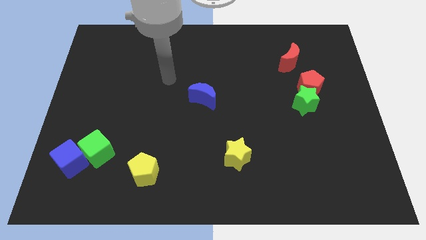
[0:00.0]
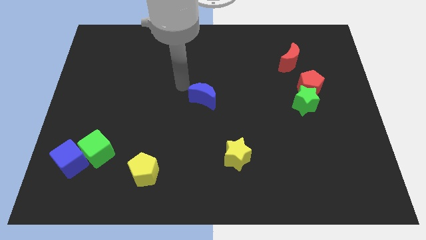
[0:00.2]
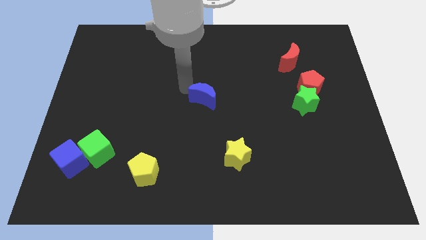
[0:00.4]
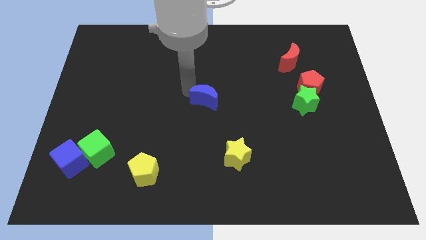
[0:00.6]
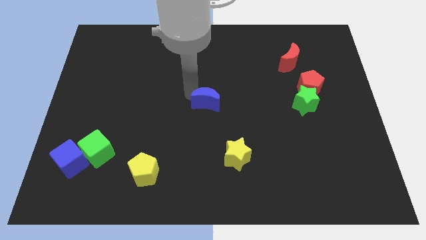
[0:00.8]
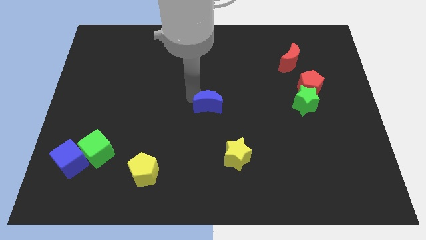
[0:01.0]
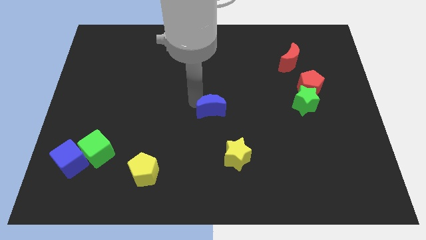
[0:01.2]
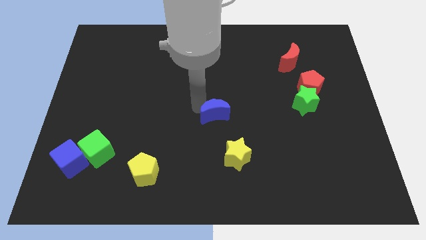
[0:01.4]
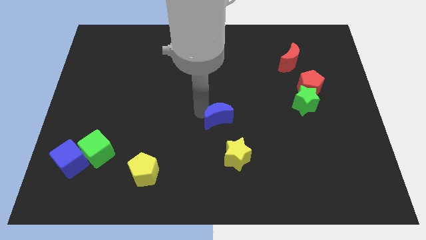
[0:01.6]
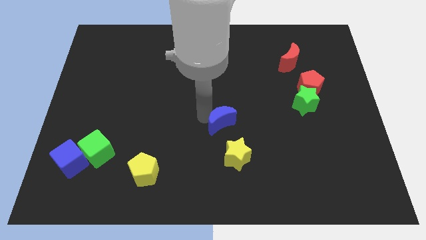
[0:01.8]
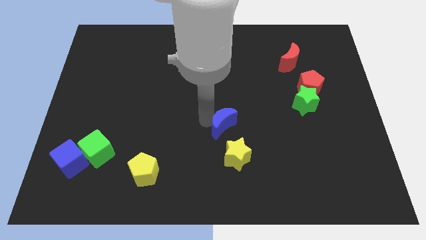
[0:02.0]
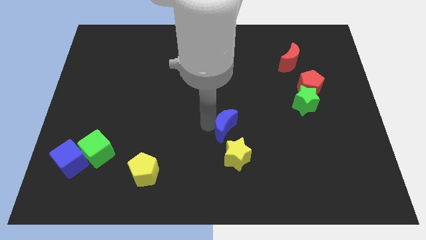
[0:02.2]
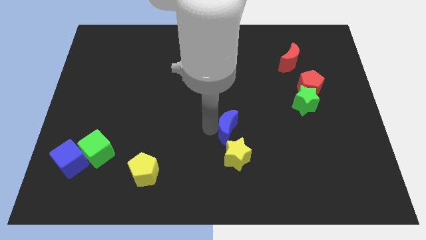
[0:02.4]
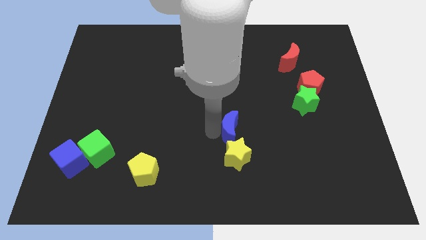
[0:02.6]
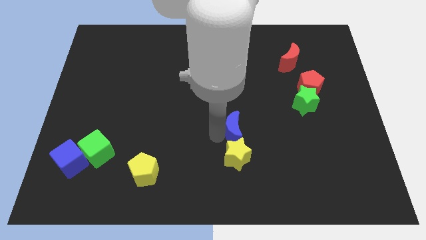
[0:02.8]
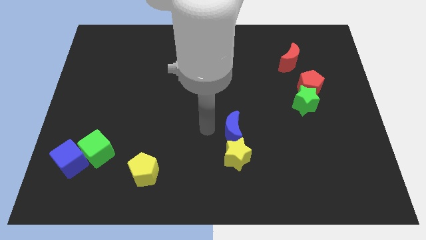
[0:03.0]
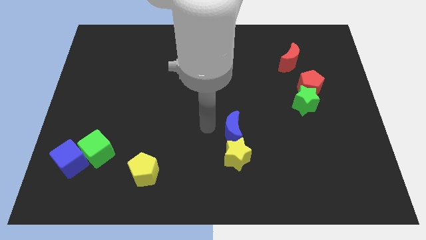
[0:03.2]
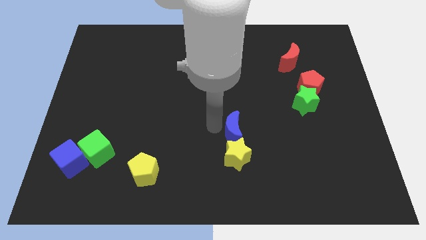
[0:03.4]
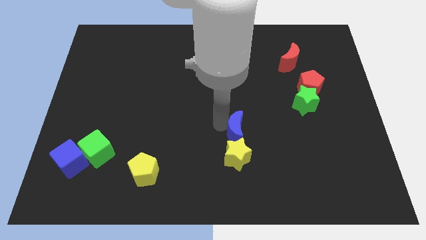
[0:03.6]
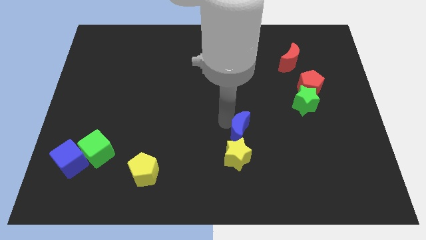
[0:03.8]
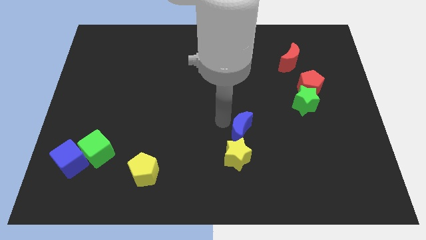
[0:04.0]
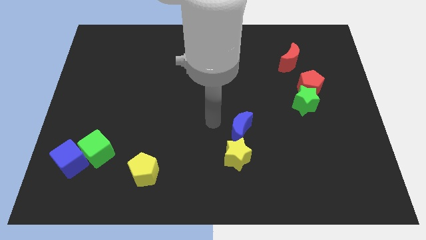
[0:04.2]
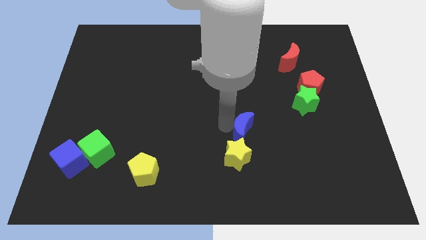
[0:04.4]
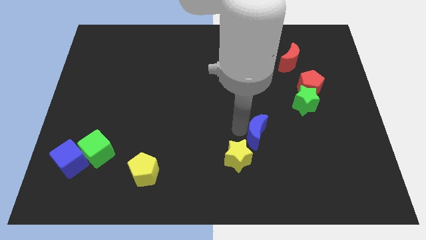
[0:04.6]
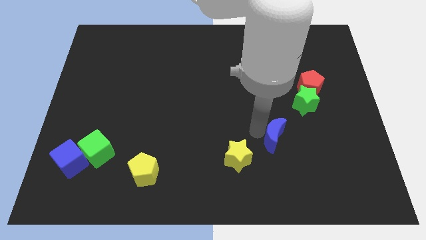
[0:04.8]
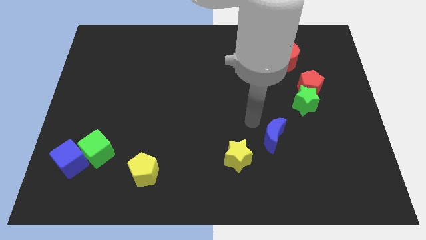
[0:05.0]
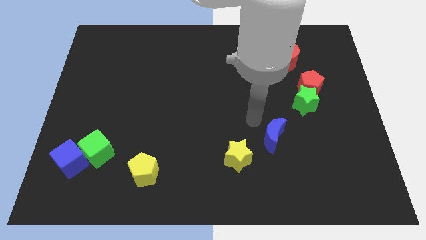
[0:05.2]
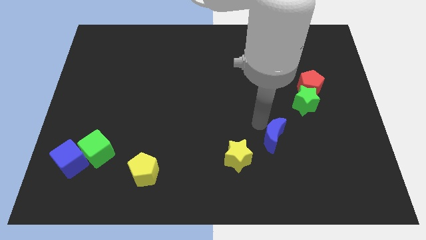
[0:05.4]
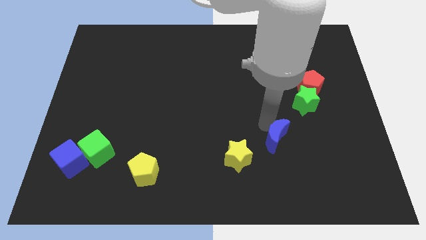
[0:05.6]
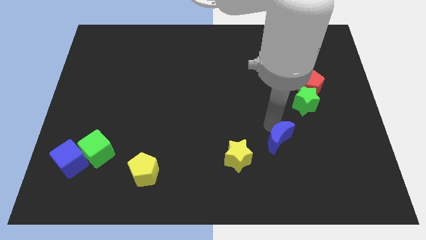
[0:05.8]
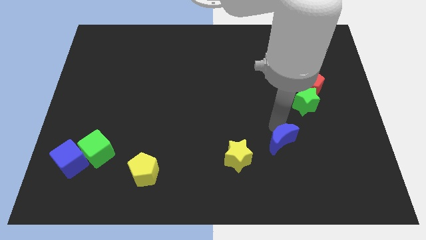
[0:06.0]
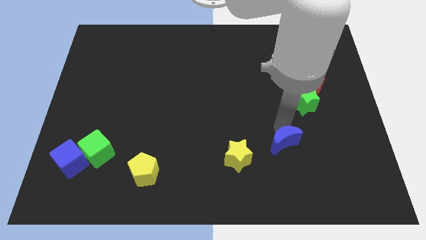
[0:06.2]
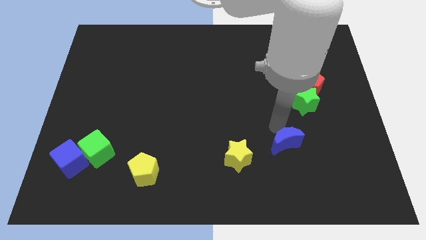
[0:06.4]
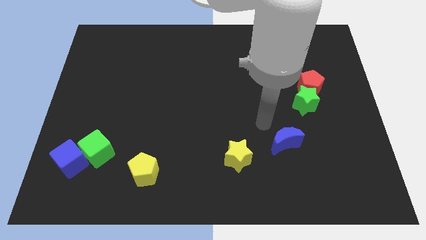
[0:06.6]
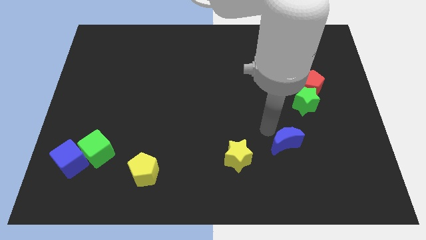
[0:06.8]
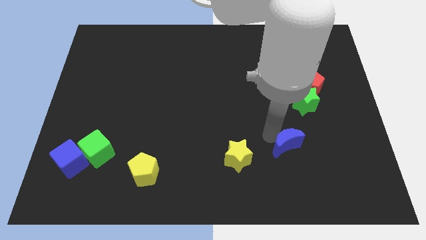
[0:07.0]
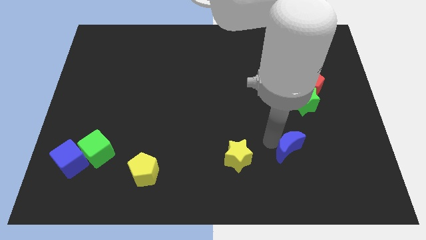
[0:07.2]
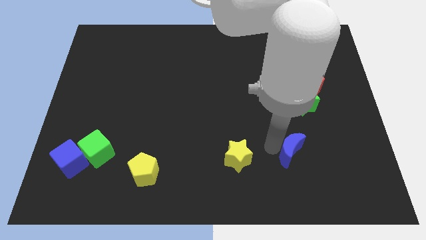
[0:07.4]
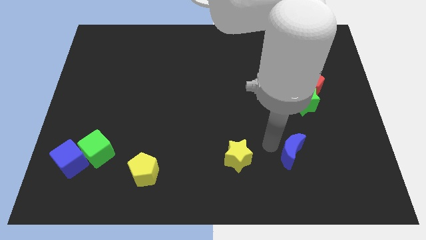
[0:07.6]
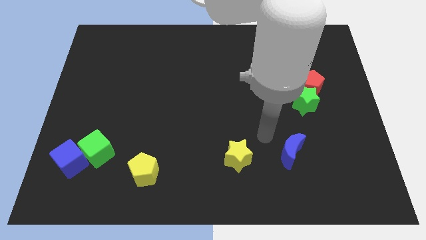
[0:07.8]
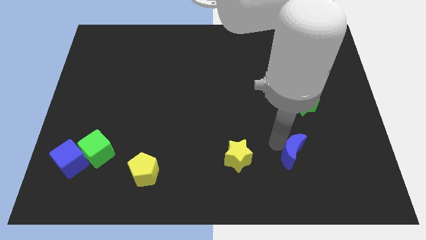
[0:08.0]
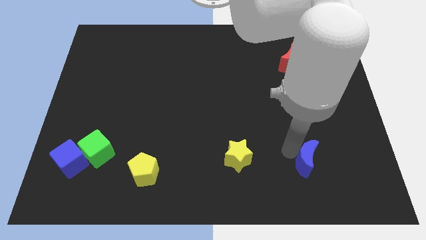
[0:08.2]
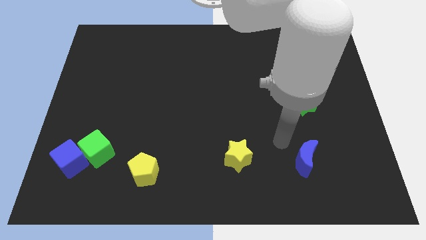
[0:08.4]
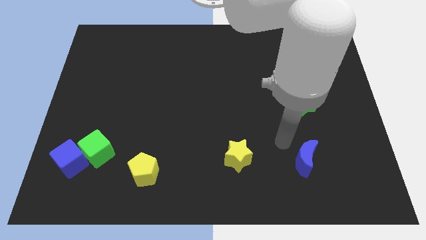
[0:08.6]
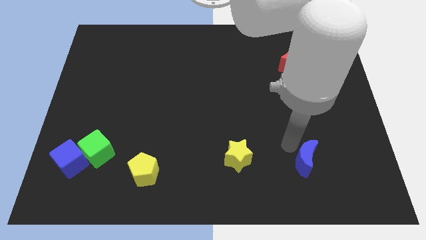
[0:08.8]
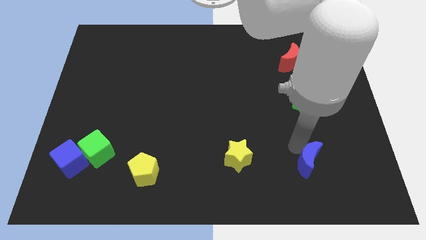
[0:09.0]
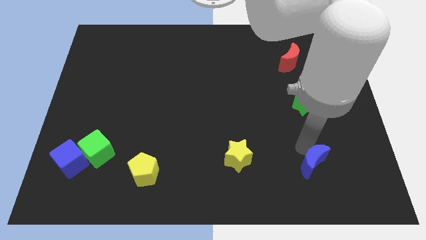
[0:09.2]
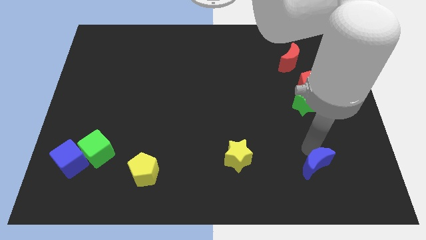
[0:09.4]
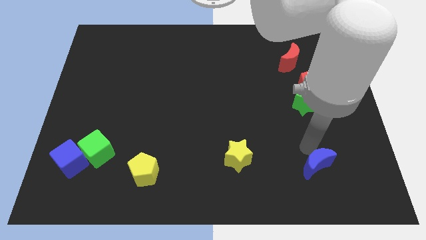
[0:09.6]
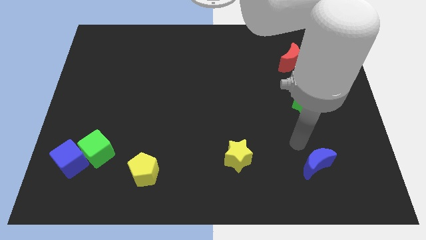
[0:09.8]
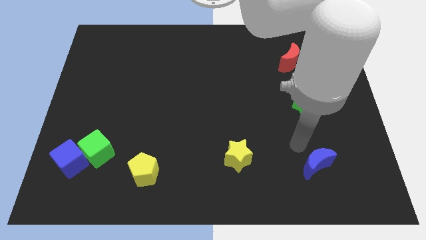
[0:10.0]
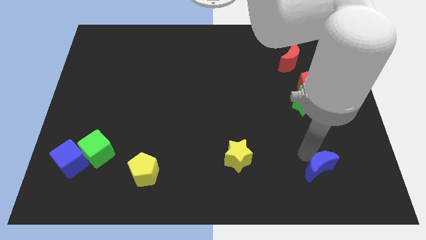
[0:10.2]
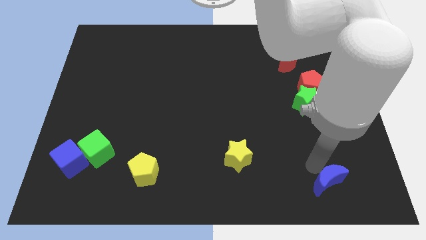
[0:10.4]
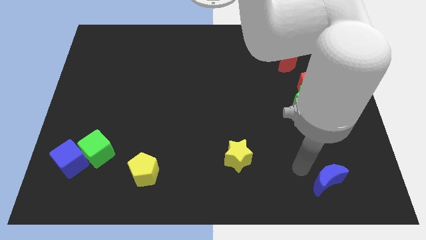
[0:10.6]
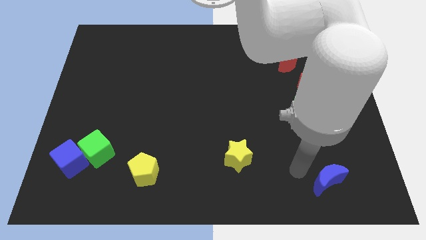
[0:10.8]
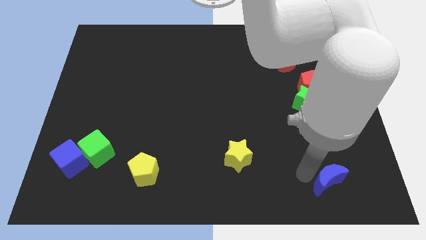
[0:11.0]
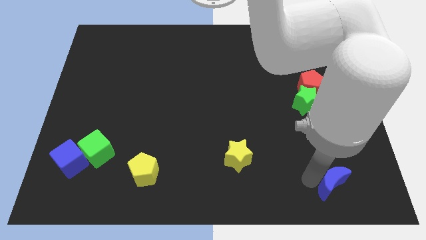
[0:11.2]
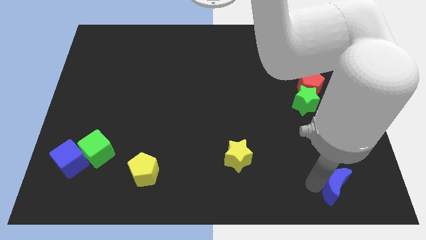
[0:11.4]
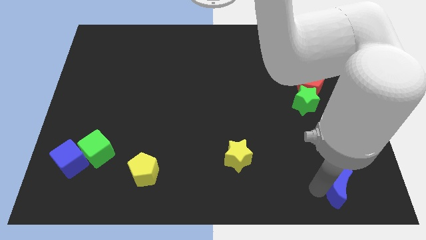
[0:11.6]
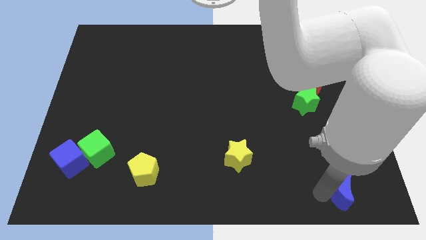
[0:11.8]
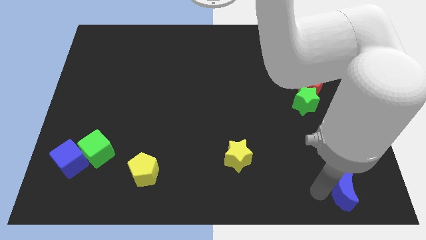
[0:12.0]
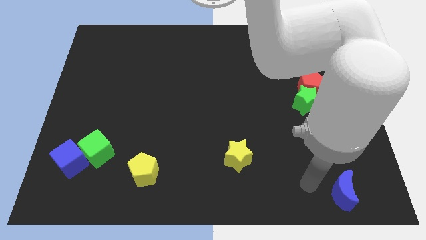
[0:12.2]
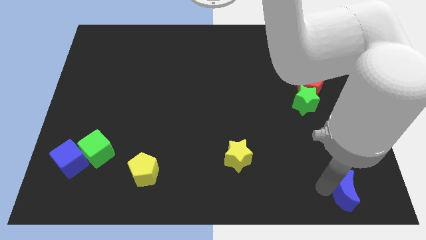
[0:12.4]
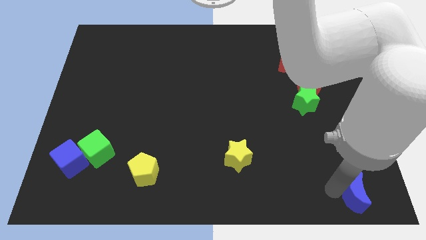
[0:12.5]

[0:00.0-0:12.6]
slide the blue moon to the lower right corner
